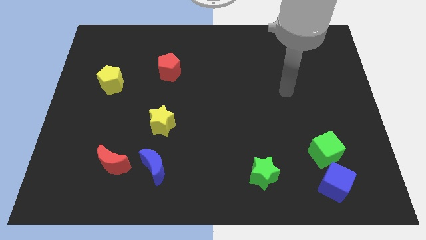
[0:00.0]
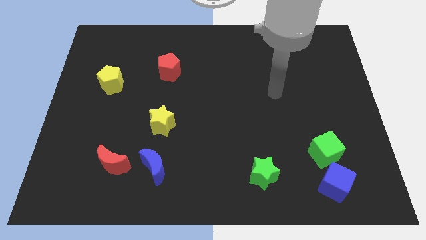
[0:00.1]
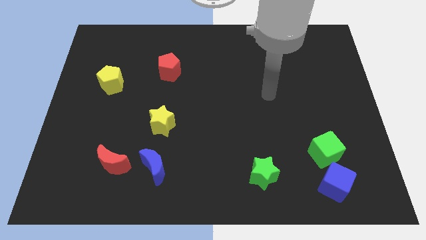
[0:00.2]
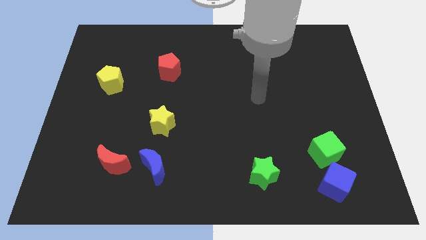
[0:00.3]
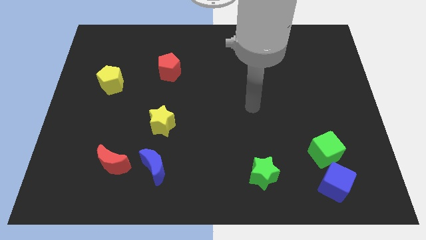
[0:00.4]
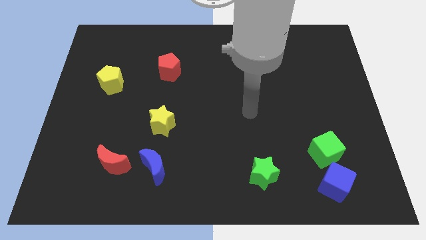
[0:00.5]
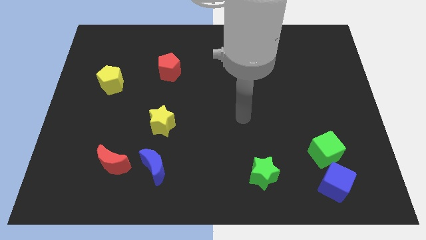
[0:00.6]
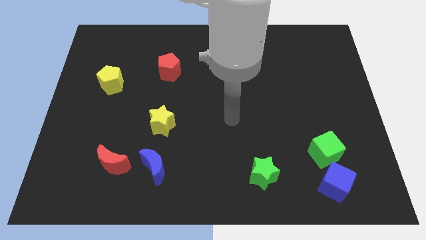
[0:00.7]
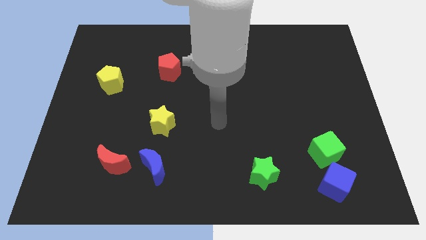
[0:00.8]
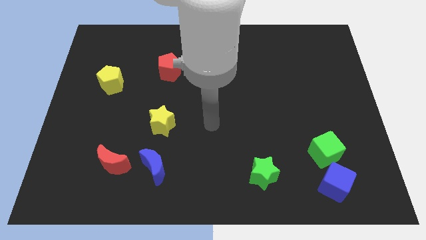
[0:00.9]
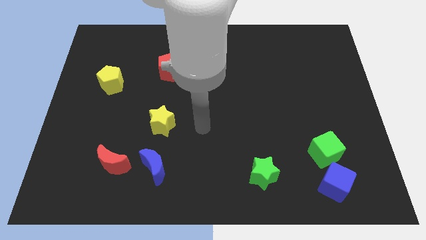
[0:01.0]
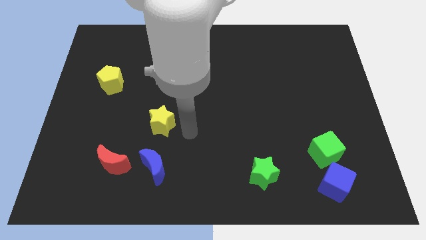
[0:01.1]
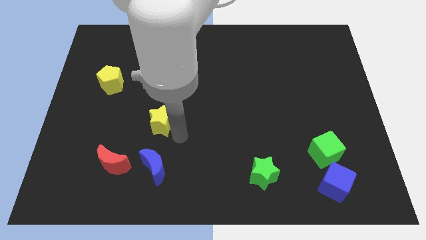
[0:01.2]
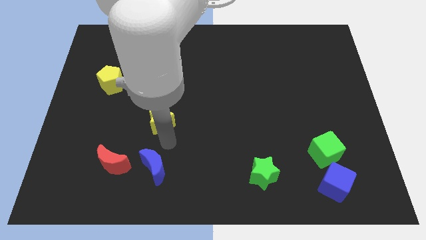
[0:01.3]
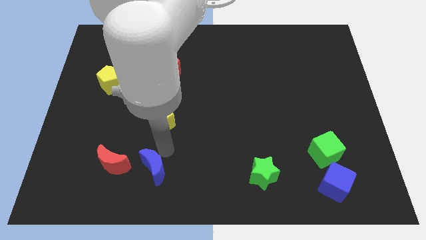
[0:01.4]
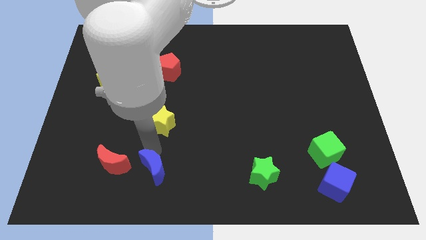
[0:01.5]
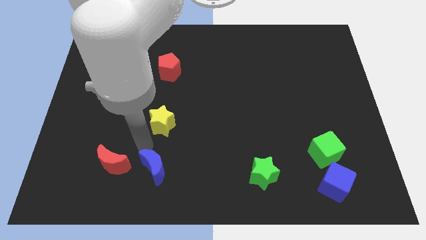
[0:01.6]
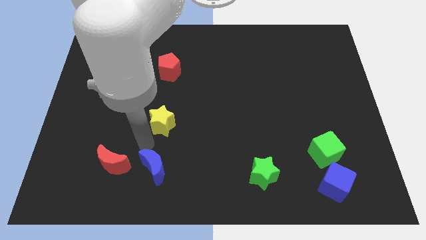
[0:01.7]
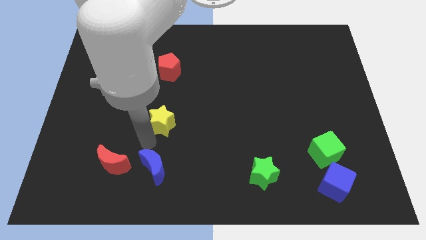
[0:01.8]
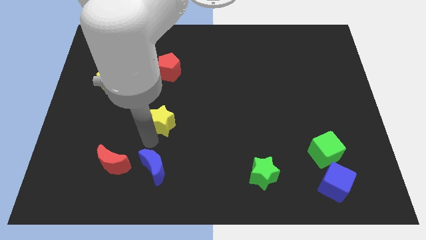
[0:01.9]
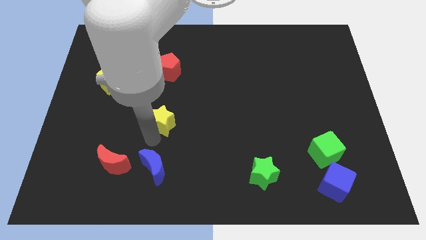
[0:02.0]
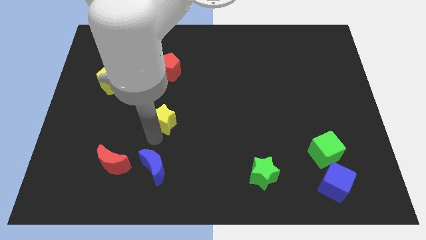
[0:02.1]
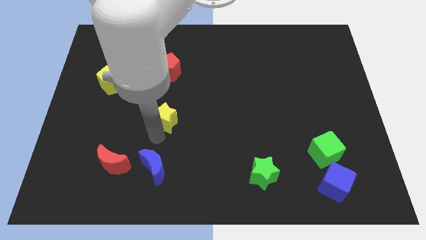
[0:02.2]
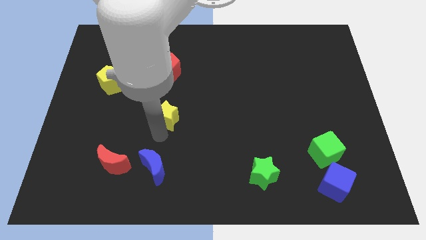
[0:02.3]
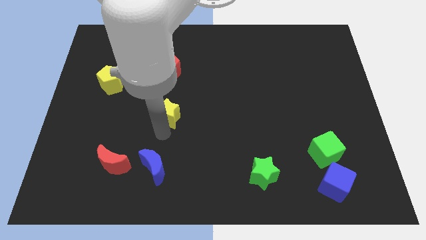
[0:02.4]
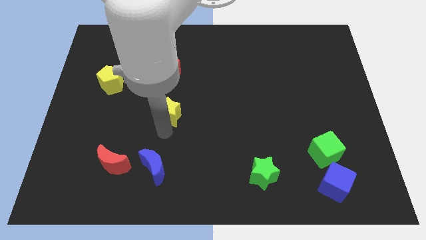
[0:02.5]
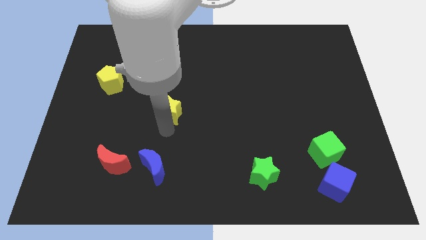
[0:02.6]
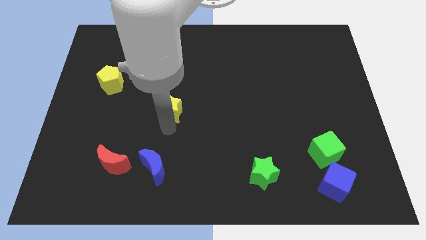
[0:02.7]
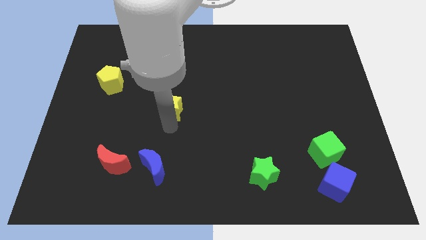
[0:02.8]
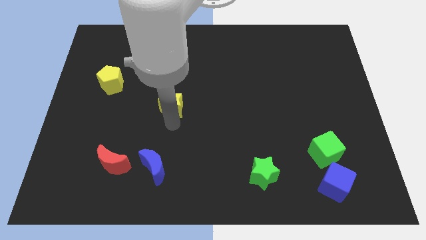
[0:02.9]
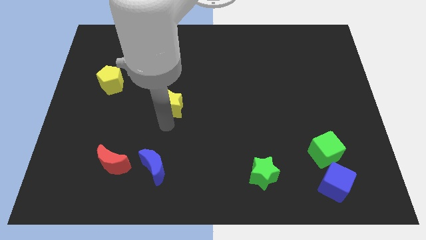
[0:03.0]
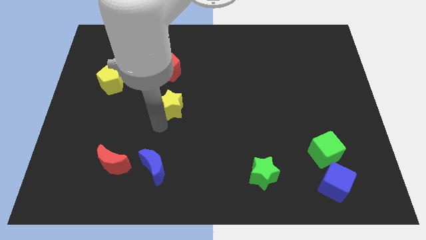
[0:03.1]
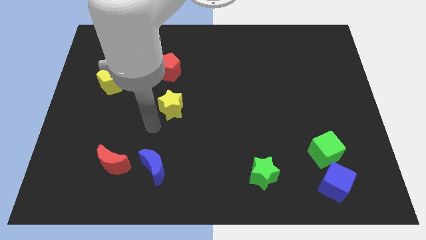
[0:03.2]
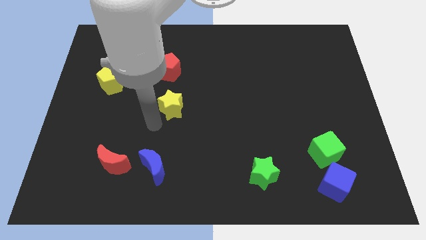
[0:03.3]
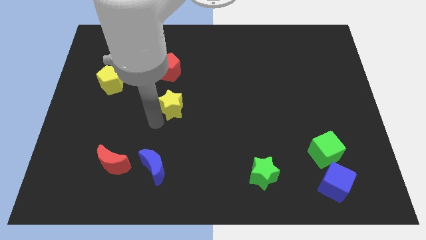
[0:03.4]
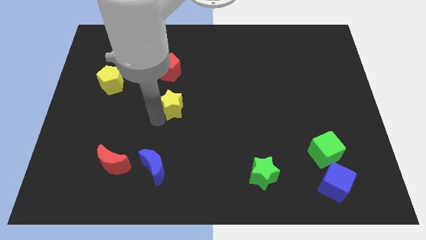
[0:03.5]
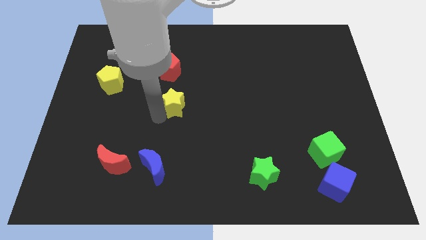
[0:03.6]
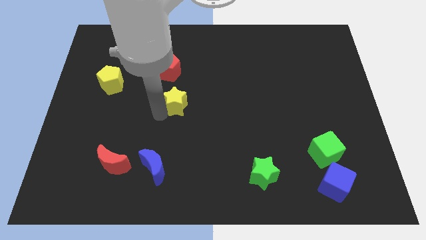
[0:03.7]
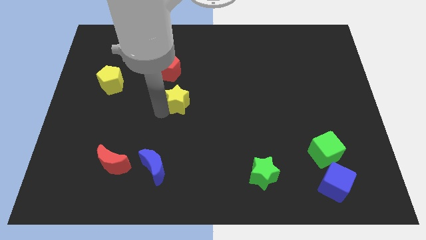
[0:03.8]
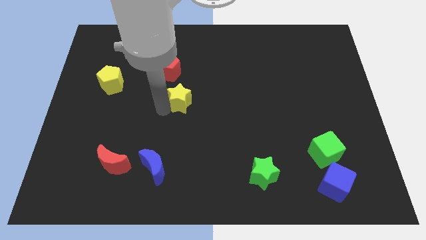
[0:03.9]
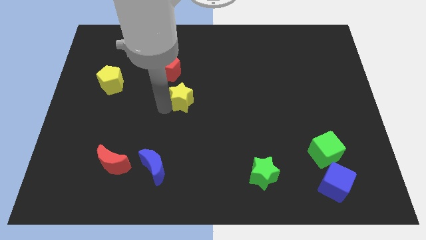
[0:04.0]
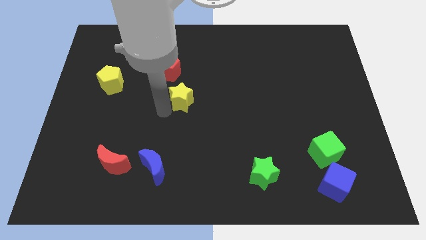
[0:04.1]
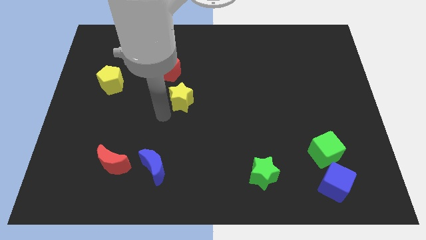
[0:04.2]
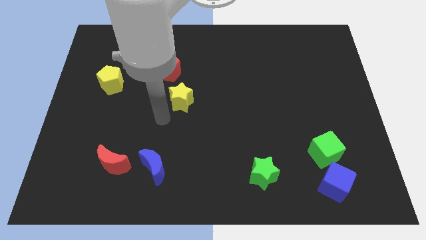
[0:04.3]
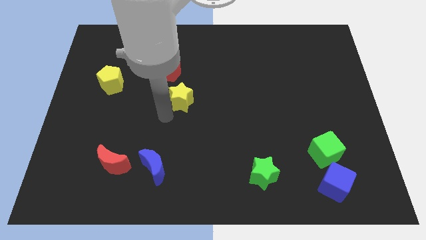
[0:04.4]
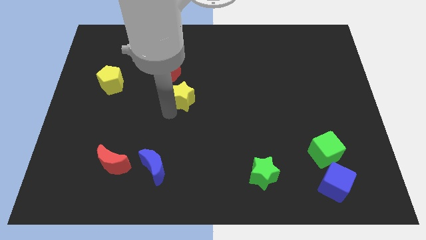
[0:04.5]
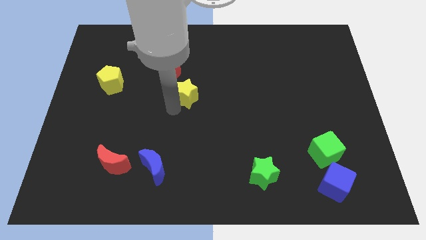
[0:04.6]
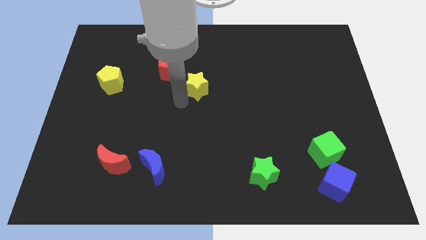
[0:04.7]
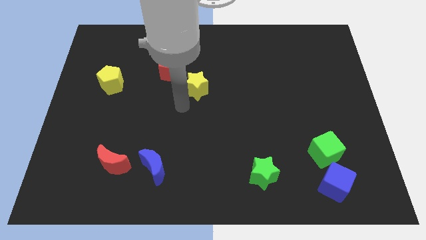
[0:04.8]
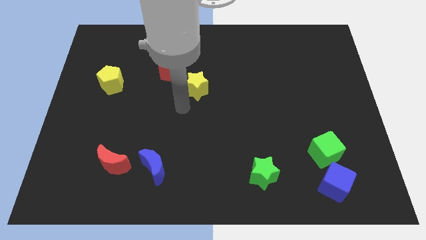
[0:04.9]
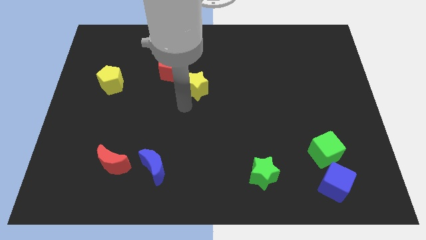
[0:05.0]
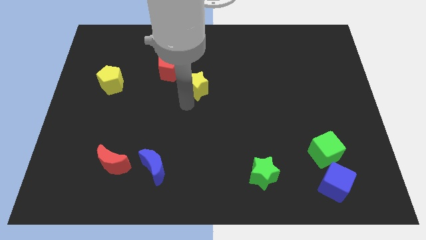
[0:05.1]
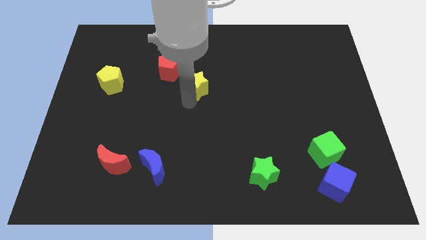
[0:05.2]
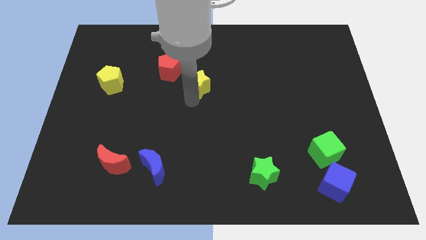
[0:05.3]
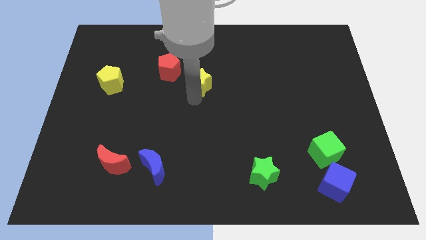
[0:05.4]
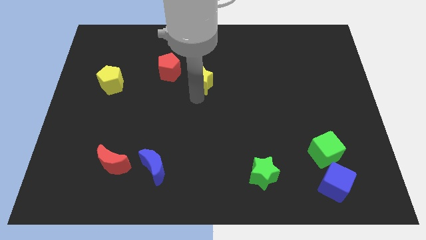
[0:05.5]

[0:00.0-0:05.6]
slide the yellow star to the right of the red pentagon

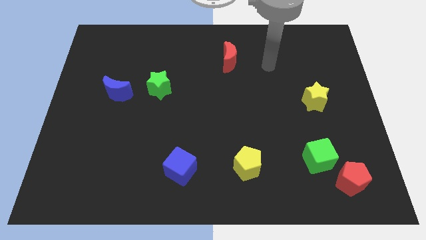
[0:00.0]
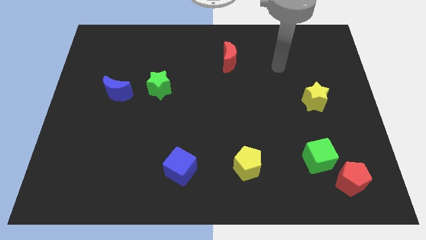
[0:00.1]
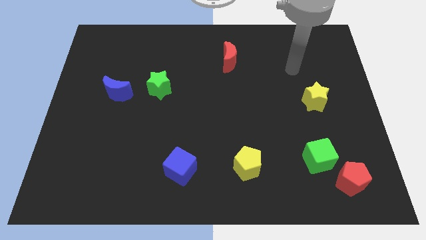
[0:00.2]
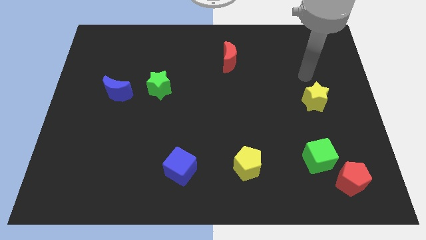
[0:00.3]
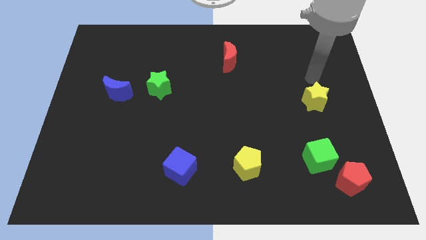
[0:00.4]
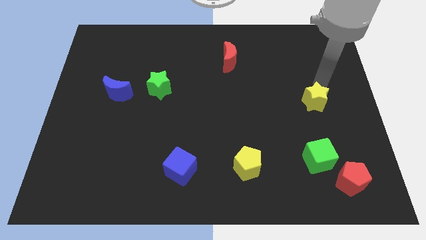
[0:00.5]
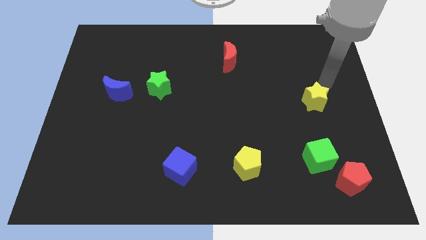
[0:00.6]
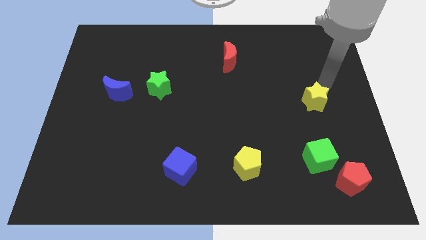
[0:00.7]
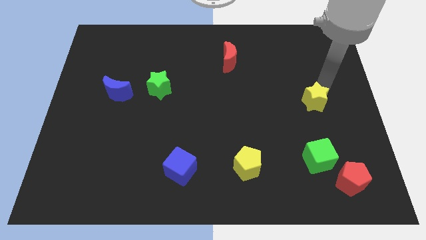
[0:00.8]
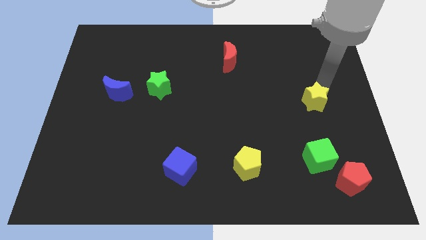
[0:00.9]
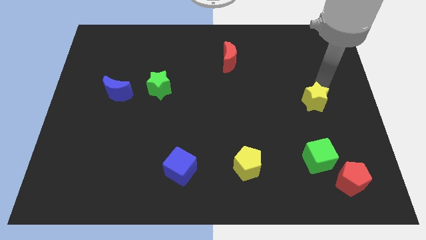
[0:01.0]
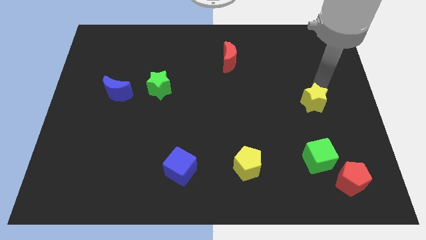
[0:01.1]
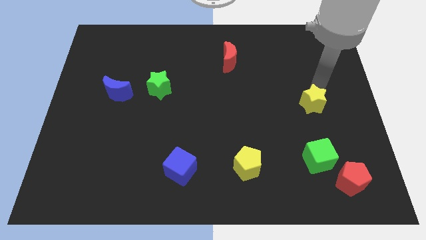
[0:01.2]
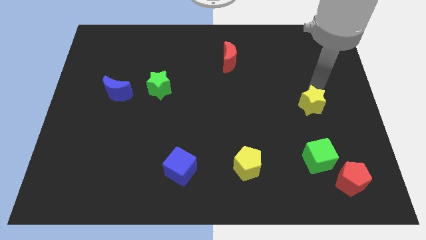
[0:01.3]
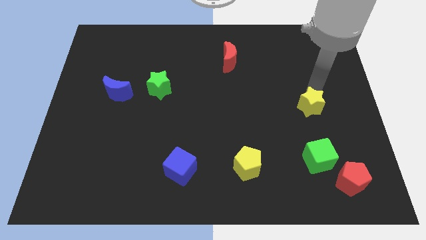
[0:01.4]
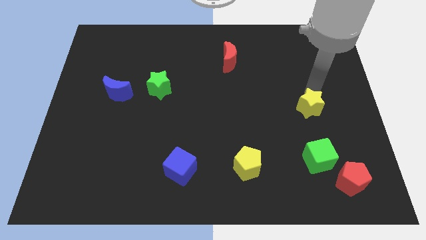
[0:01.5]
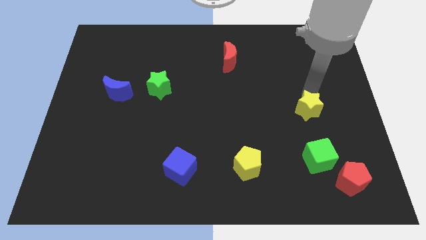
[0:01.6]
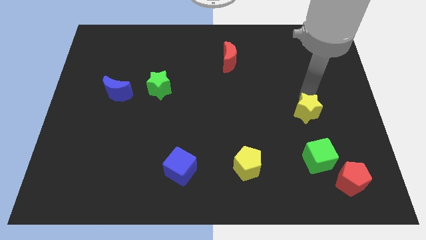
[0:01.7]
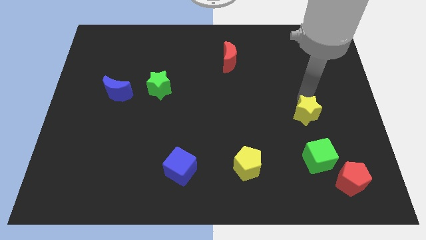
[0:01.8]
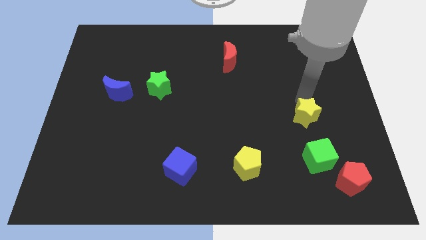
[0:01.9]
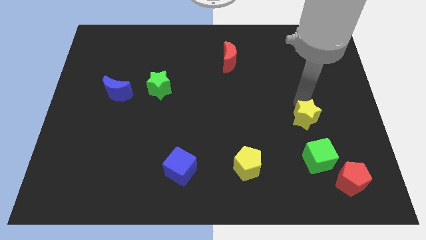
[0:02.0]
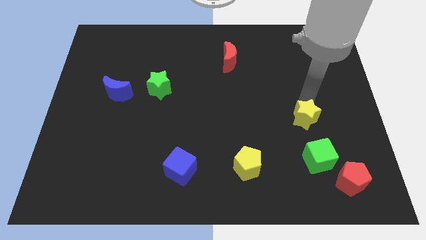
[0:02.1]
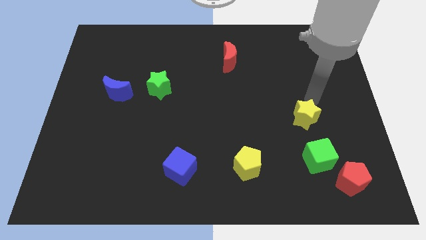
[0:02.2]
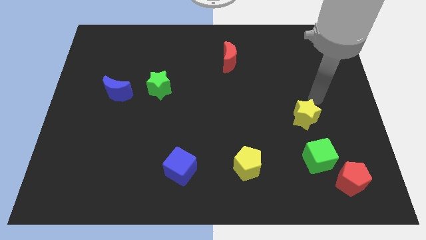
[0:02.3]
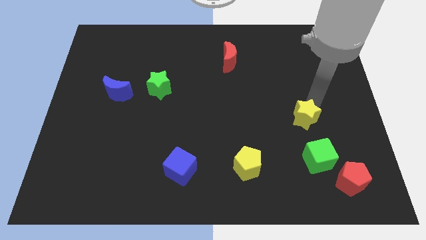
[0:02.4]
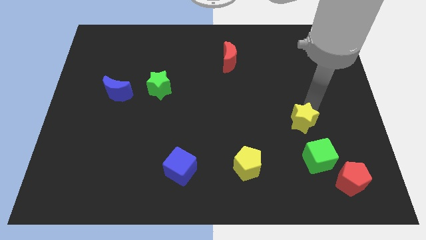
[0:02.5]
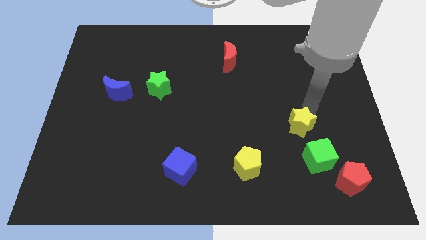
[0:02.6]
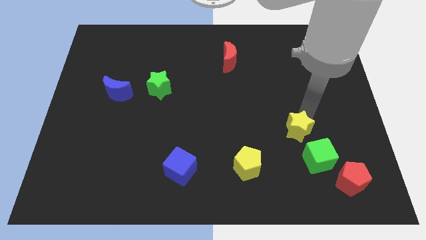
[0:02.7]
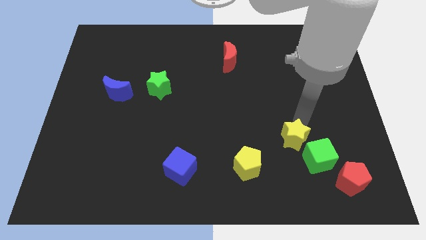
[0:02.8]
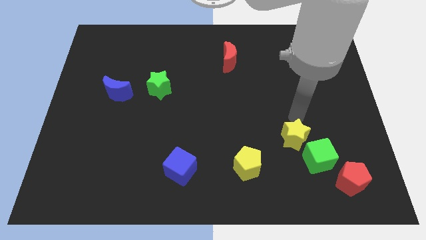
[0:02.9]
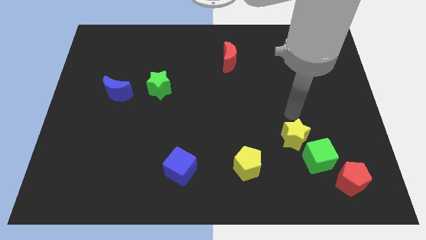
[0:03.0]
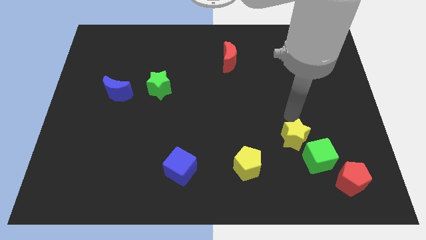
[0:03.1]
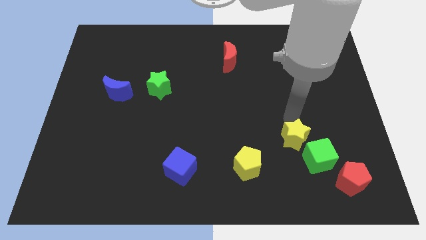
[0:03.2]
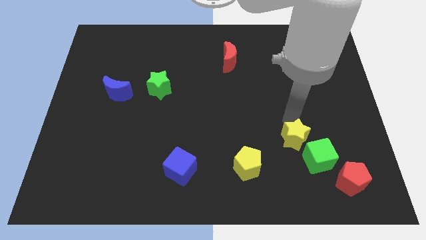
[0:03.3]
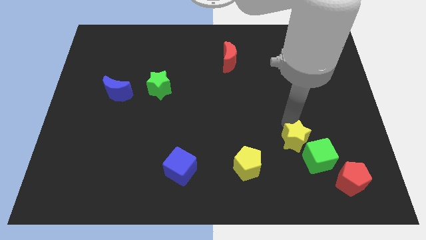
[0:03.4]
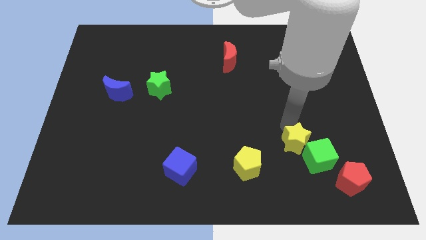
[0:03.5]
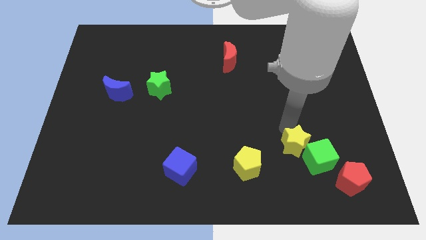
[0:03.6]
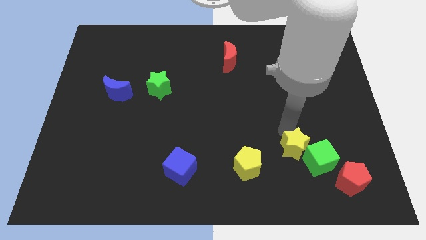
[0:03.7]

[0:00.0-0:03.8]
move the yellow star just right of the yellow pentagon
